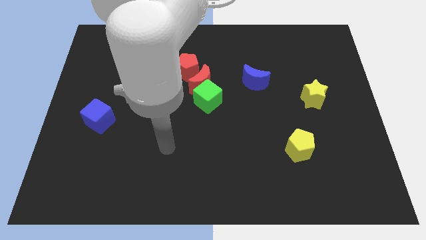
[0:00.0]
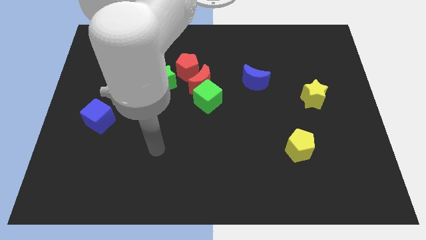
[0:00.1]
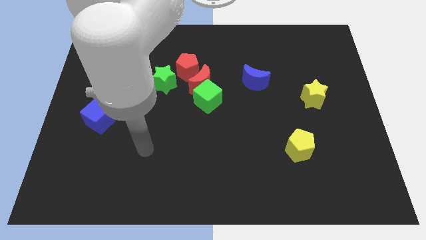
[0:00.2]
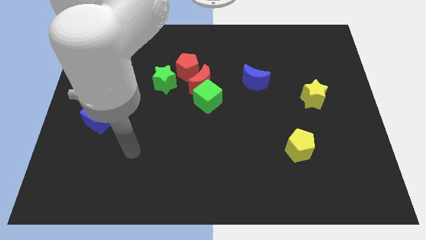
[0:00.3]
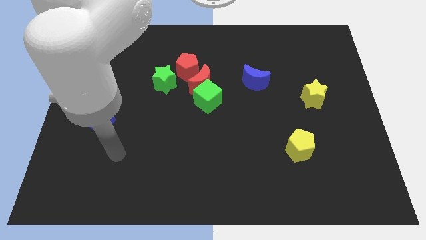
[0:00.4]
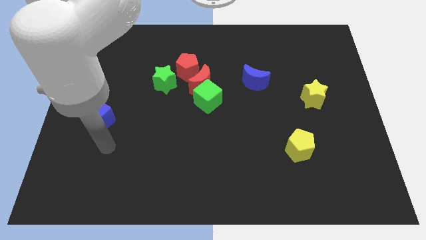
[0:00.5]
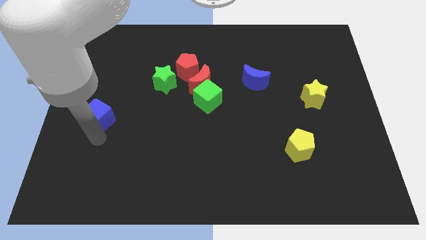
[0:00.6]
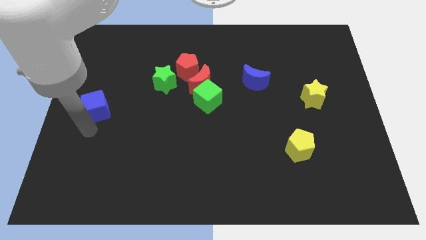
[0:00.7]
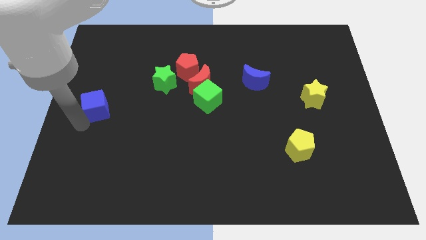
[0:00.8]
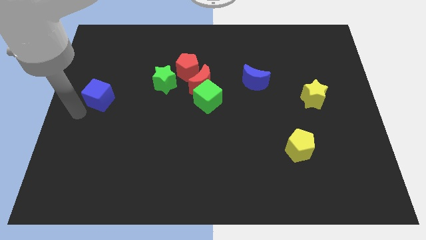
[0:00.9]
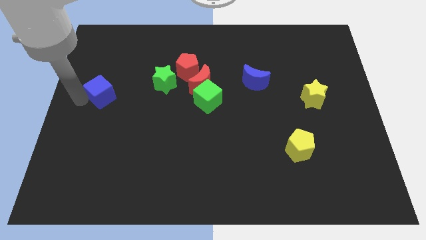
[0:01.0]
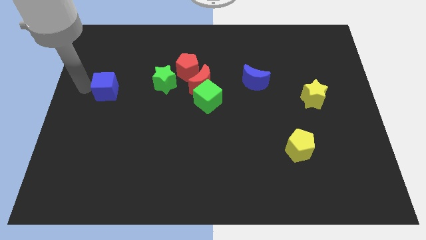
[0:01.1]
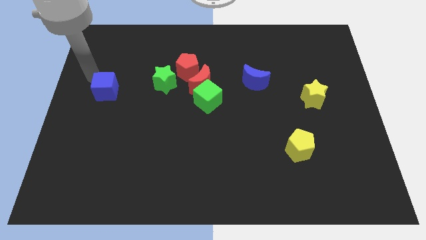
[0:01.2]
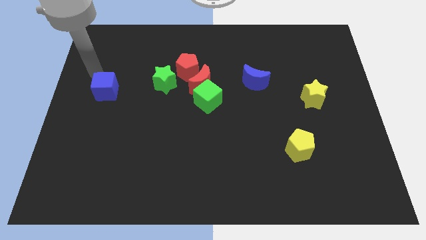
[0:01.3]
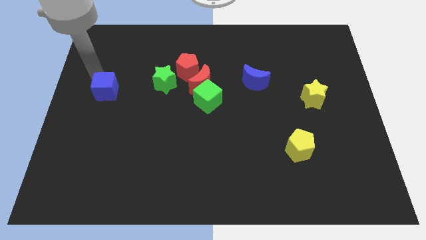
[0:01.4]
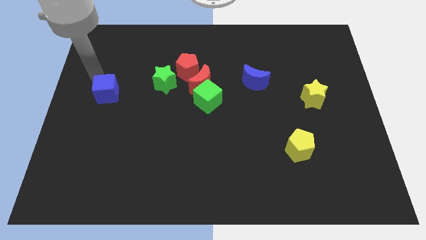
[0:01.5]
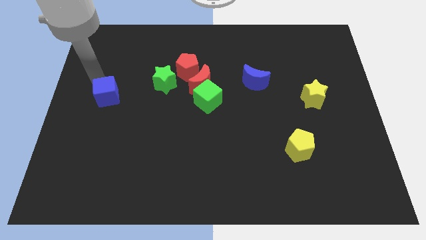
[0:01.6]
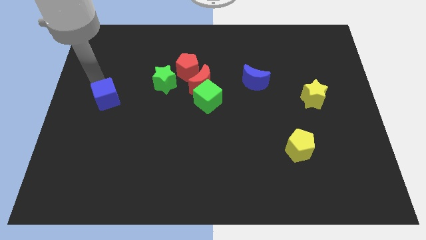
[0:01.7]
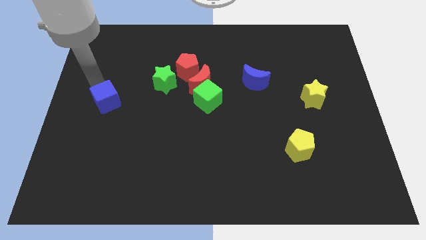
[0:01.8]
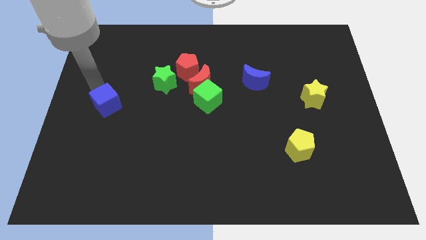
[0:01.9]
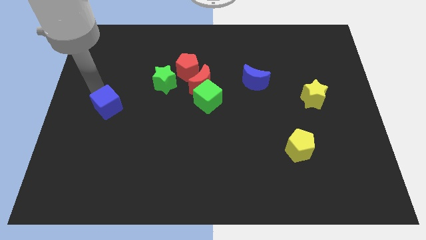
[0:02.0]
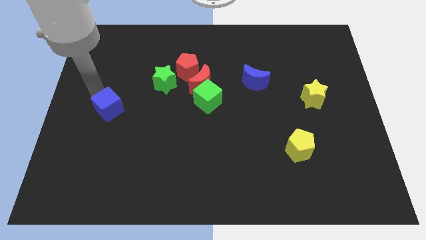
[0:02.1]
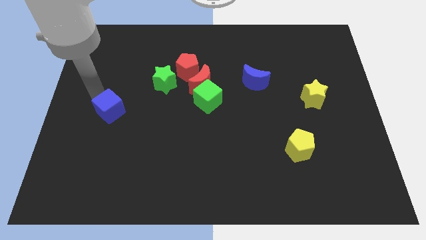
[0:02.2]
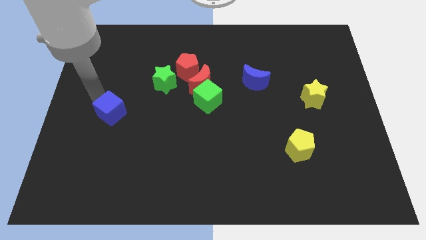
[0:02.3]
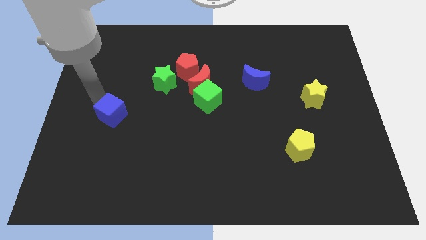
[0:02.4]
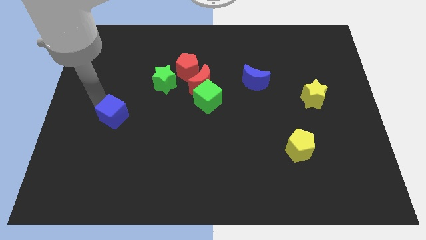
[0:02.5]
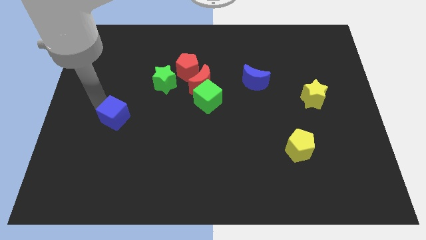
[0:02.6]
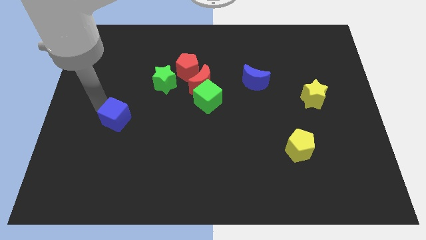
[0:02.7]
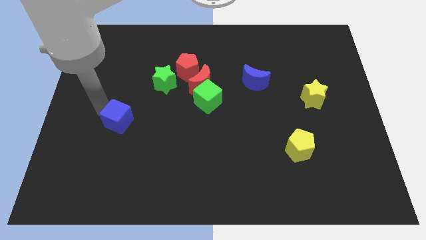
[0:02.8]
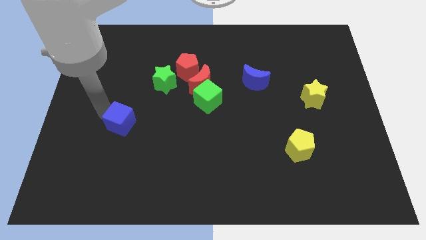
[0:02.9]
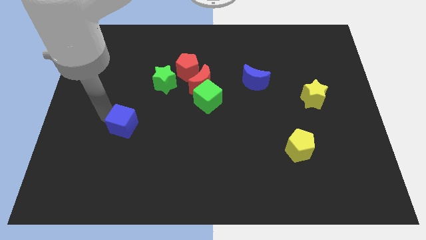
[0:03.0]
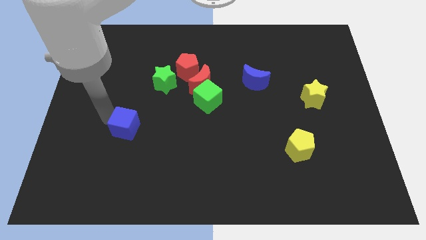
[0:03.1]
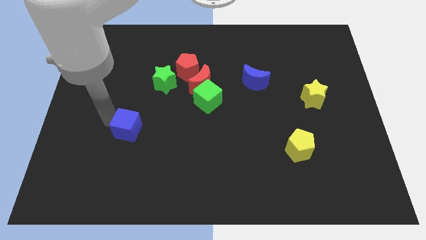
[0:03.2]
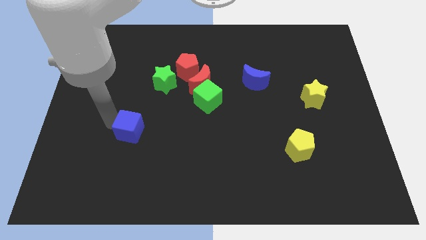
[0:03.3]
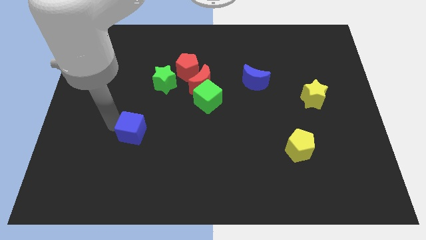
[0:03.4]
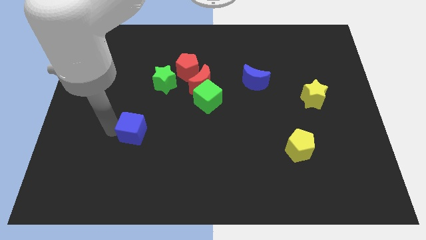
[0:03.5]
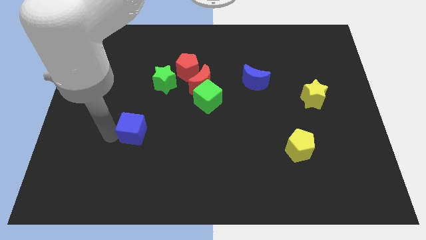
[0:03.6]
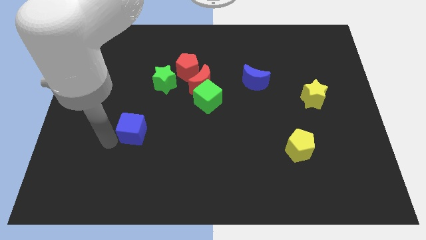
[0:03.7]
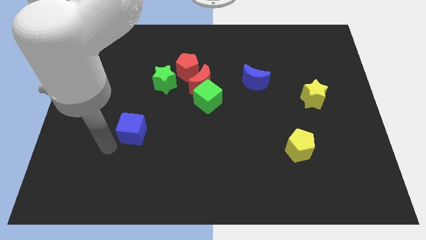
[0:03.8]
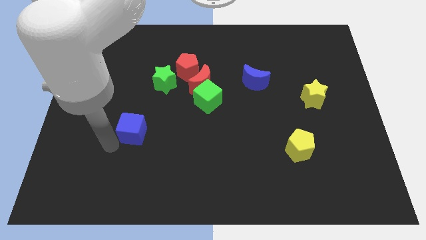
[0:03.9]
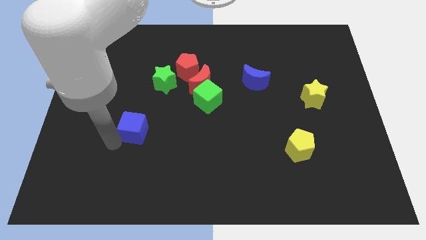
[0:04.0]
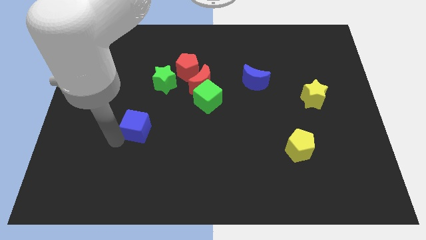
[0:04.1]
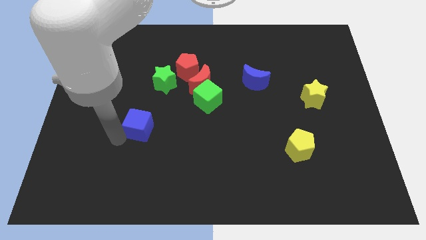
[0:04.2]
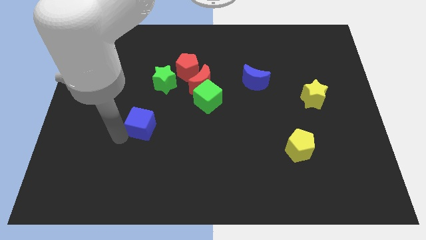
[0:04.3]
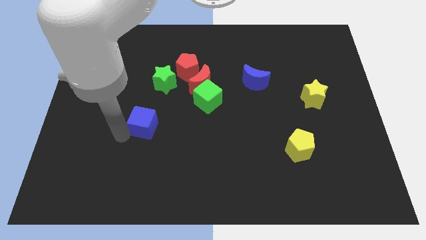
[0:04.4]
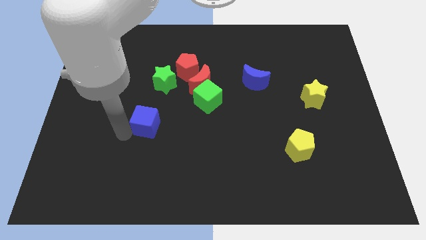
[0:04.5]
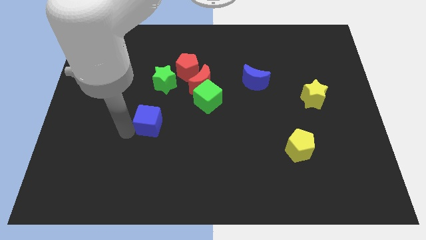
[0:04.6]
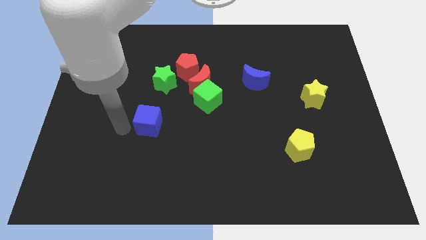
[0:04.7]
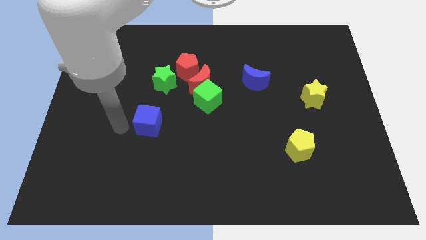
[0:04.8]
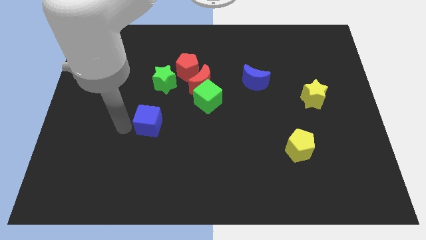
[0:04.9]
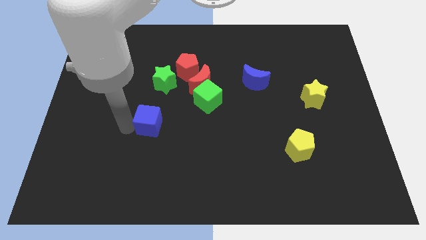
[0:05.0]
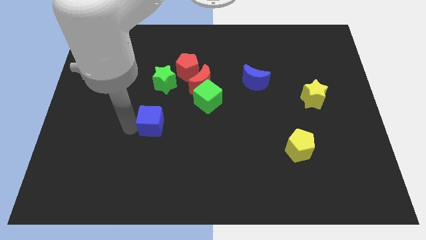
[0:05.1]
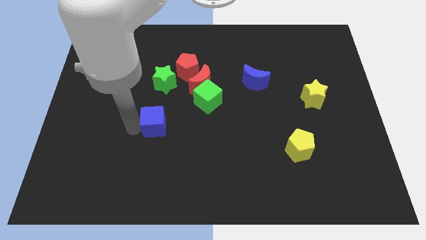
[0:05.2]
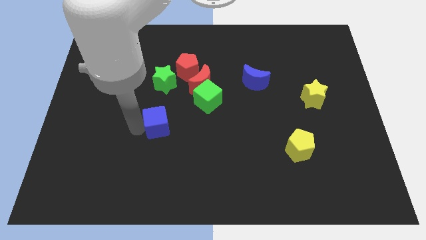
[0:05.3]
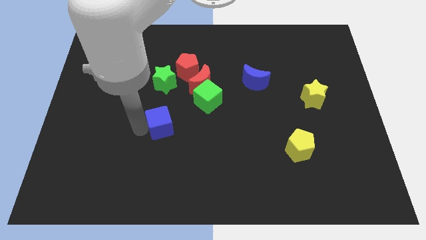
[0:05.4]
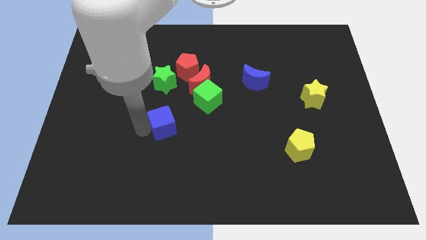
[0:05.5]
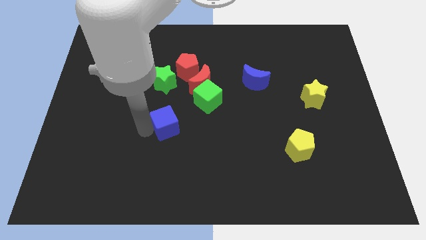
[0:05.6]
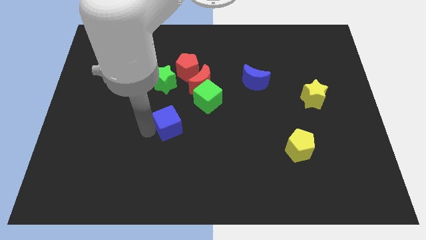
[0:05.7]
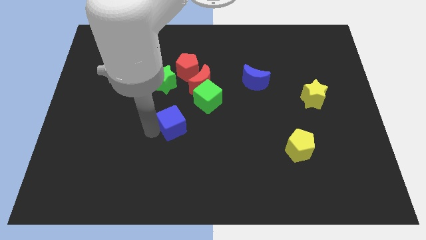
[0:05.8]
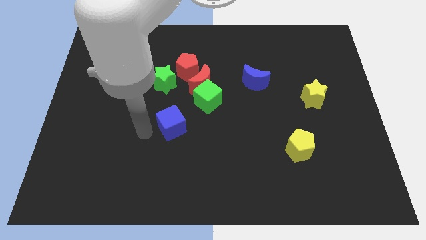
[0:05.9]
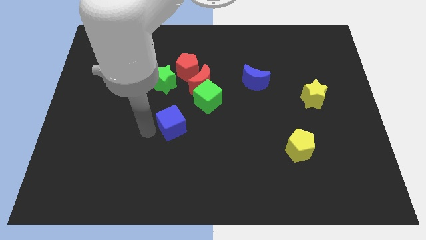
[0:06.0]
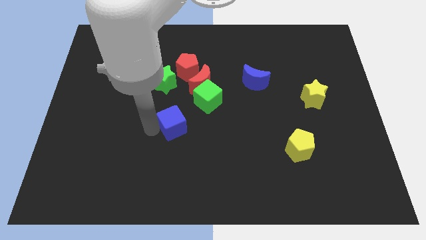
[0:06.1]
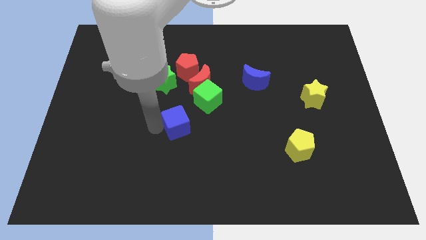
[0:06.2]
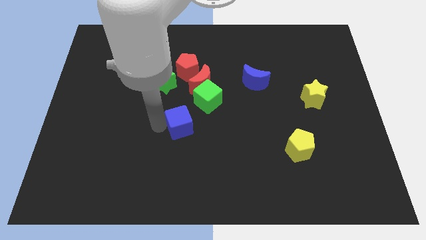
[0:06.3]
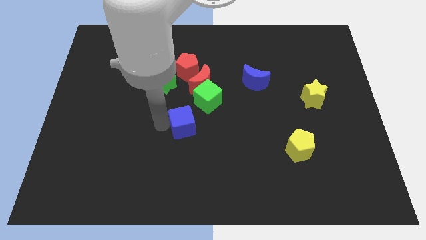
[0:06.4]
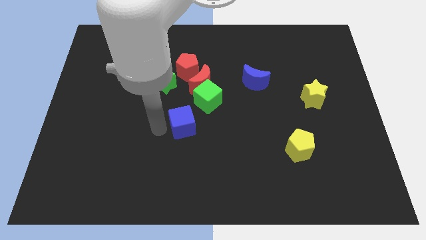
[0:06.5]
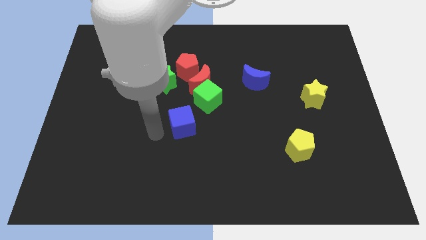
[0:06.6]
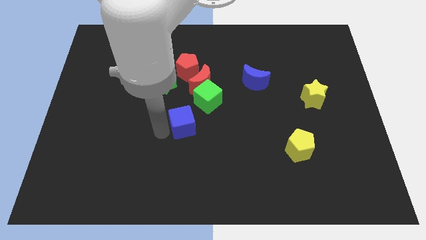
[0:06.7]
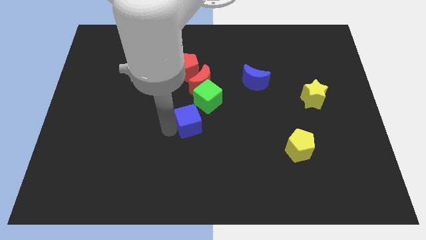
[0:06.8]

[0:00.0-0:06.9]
push the blue cube to the right

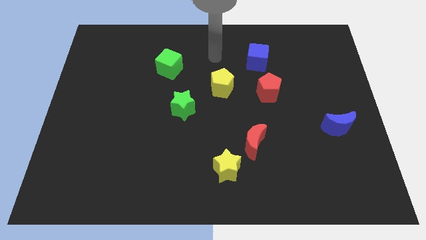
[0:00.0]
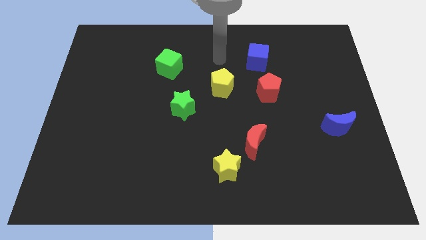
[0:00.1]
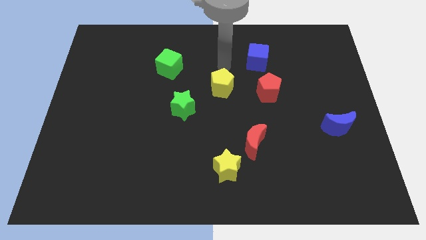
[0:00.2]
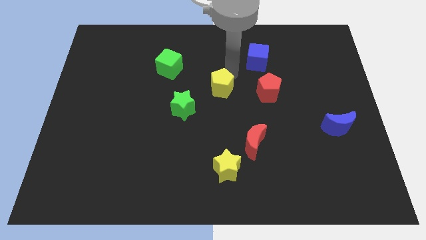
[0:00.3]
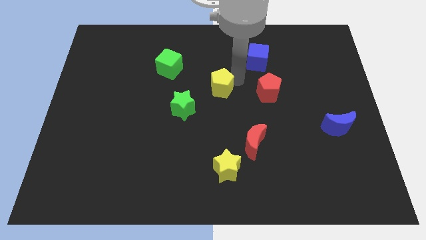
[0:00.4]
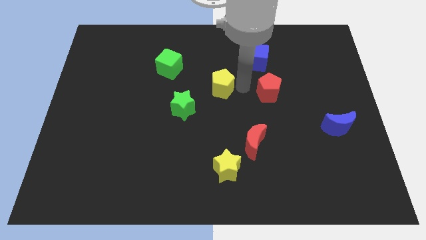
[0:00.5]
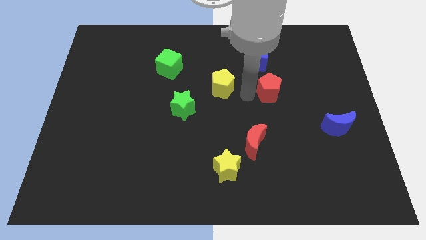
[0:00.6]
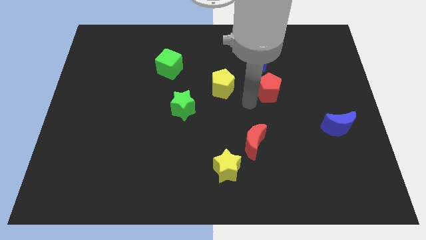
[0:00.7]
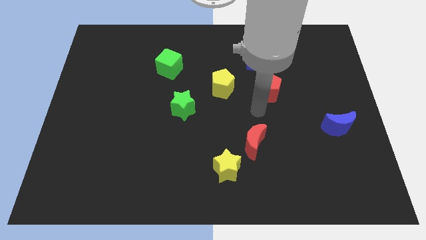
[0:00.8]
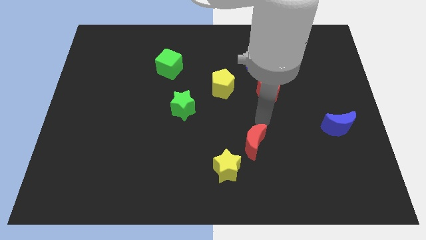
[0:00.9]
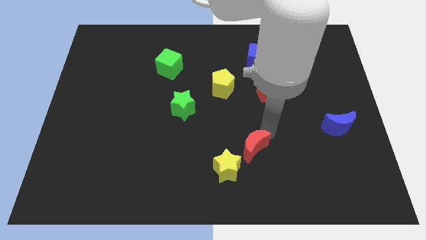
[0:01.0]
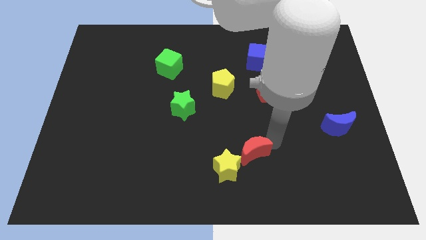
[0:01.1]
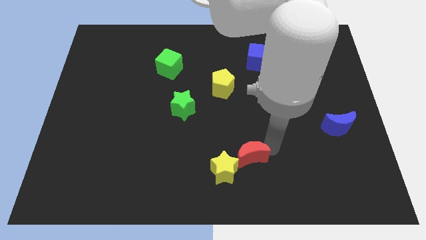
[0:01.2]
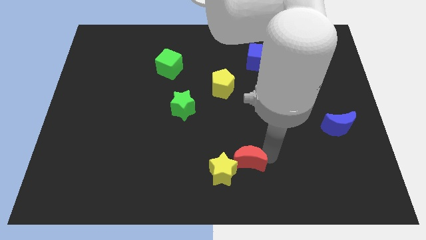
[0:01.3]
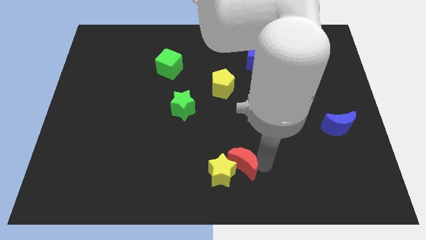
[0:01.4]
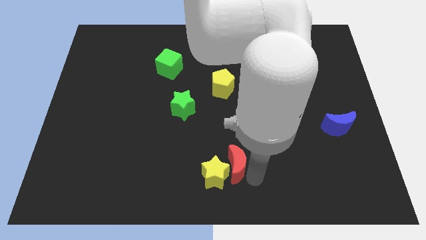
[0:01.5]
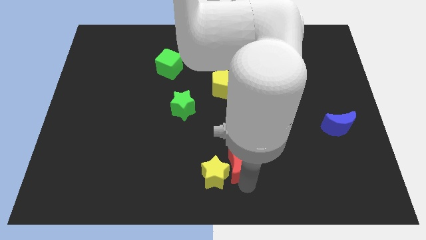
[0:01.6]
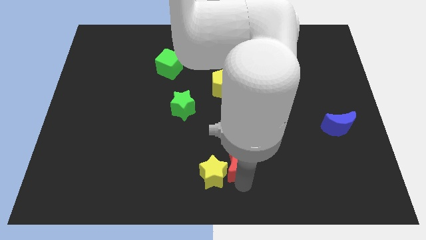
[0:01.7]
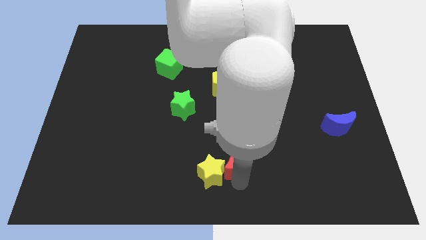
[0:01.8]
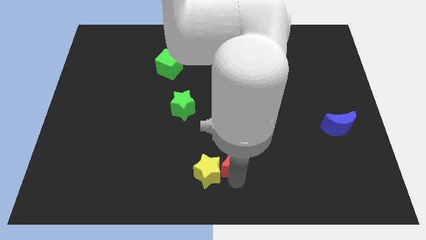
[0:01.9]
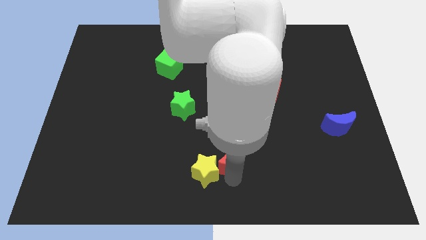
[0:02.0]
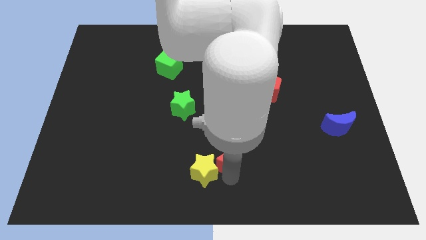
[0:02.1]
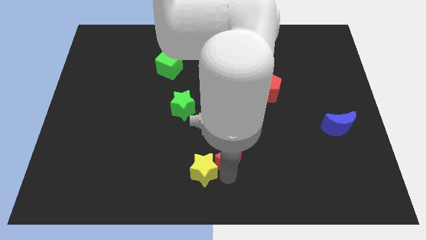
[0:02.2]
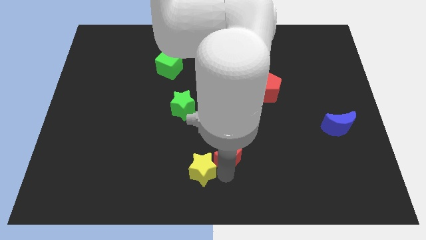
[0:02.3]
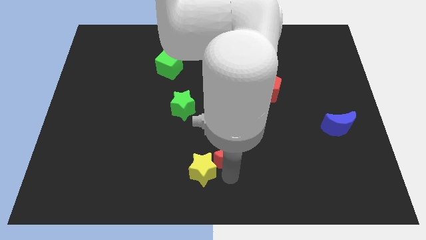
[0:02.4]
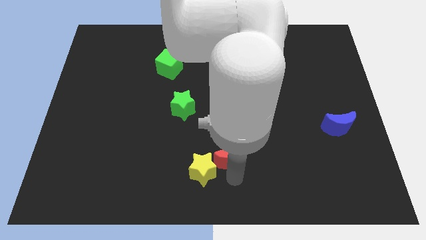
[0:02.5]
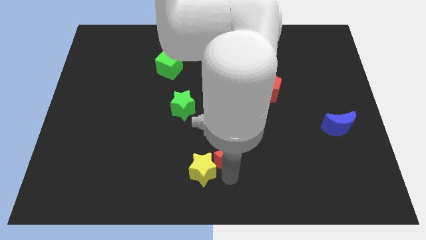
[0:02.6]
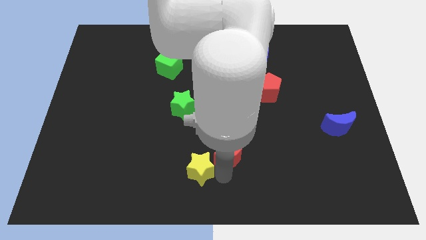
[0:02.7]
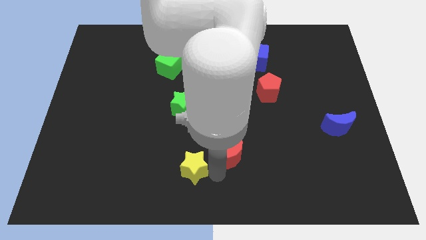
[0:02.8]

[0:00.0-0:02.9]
slightly push the yellow star left
